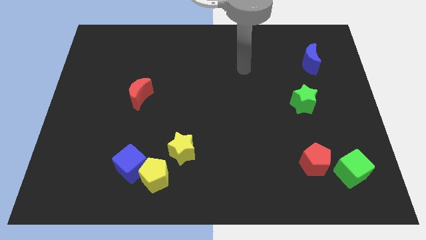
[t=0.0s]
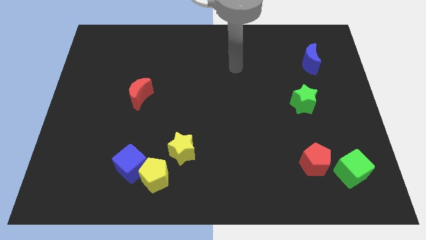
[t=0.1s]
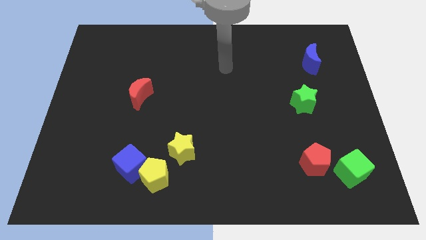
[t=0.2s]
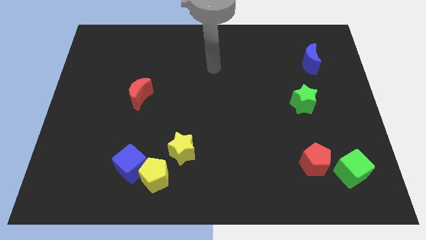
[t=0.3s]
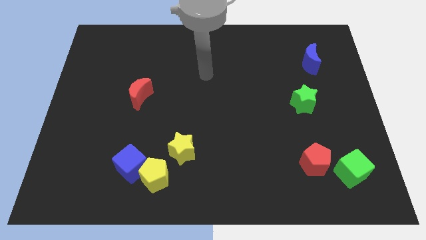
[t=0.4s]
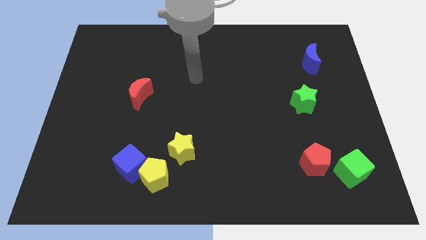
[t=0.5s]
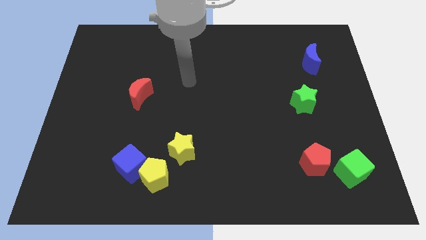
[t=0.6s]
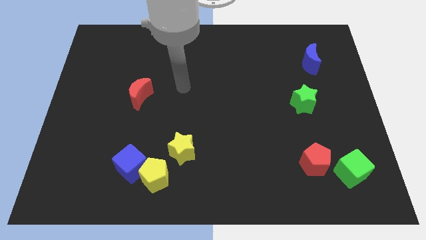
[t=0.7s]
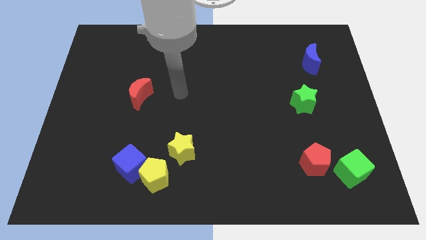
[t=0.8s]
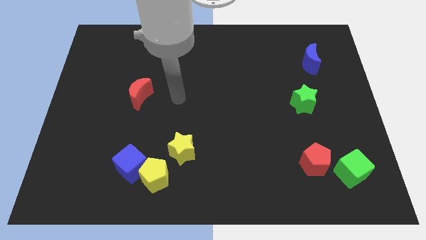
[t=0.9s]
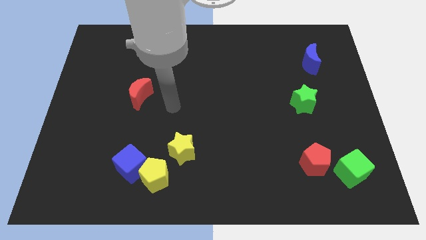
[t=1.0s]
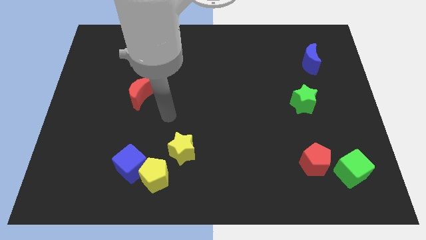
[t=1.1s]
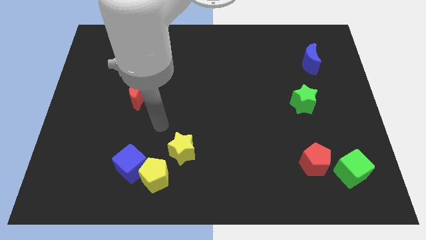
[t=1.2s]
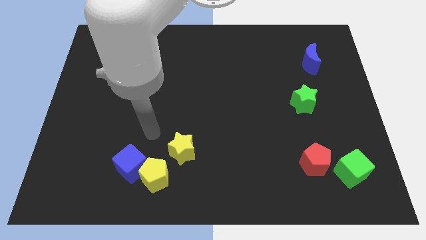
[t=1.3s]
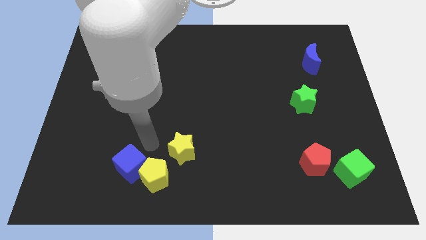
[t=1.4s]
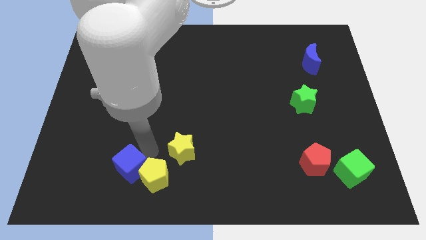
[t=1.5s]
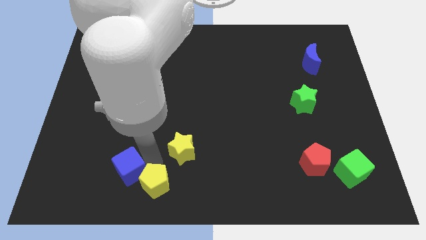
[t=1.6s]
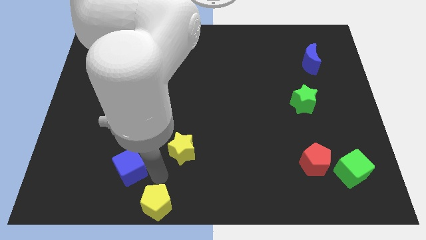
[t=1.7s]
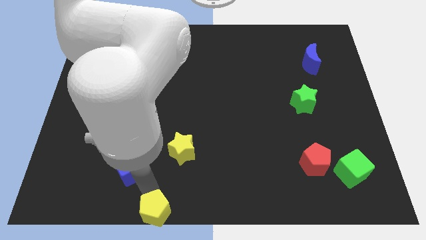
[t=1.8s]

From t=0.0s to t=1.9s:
move the blue cube away from the yellow pentagon

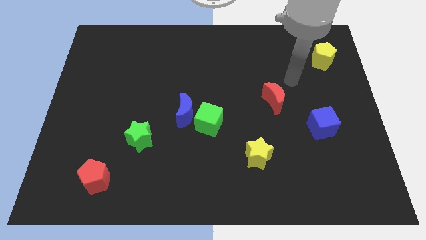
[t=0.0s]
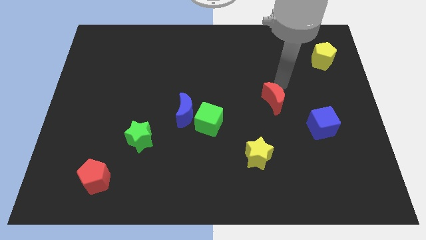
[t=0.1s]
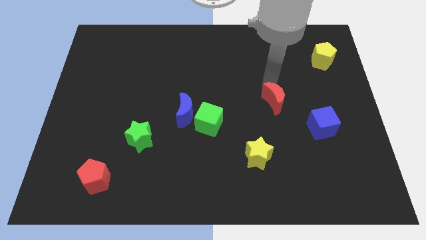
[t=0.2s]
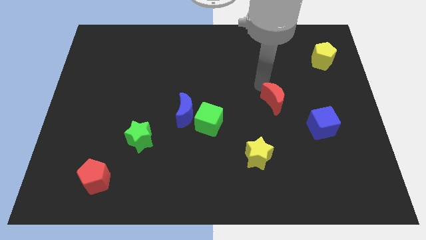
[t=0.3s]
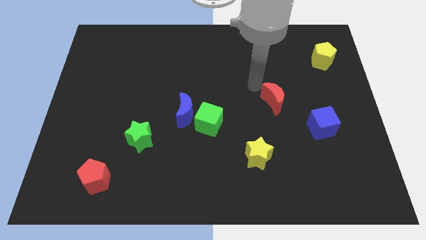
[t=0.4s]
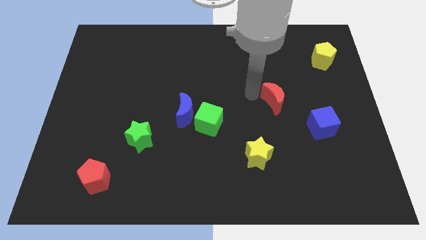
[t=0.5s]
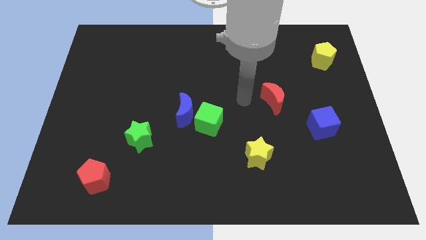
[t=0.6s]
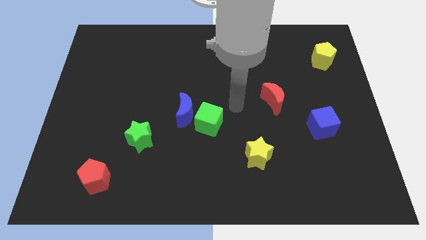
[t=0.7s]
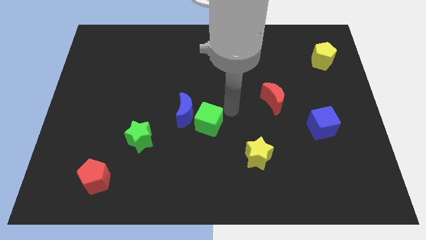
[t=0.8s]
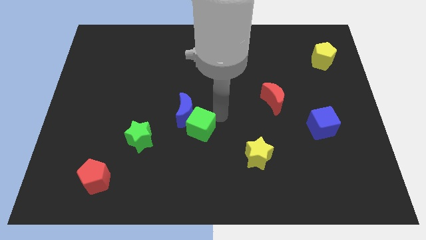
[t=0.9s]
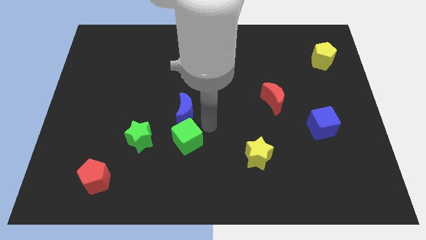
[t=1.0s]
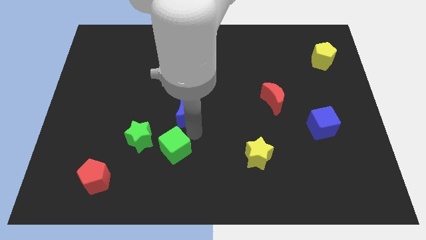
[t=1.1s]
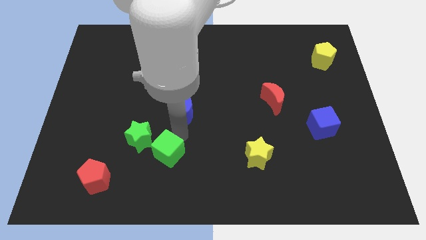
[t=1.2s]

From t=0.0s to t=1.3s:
separate the blue moon from the green cube

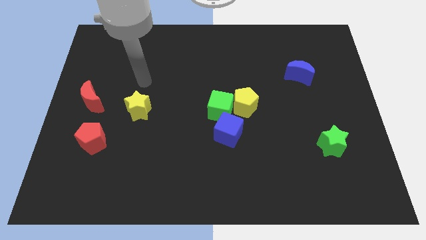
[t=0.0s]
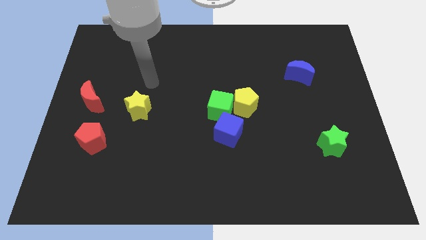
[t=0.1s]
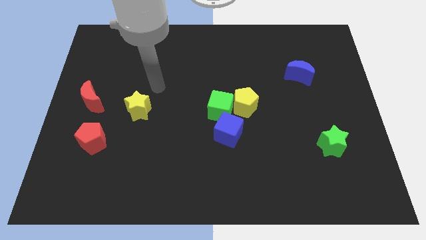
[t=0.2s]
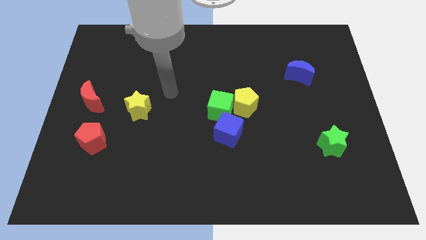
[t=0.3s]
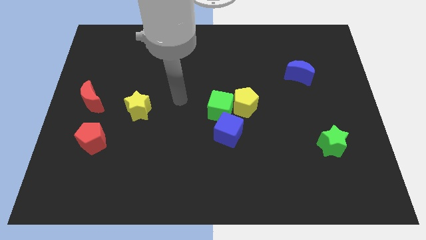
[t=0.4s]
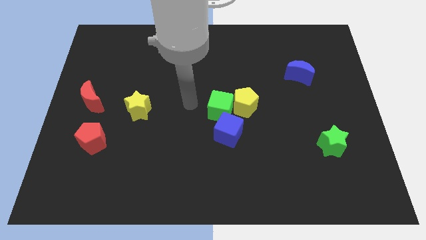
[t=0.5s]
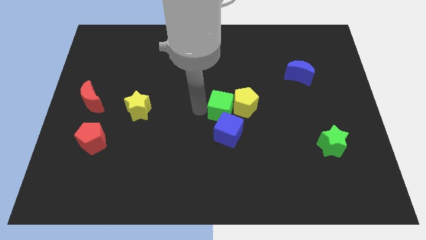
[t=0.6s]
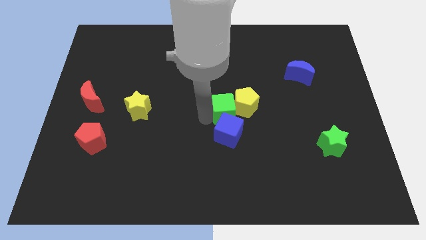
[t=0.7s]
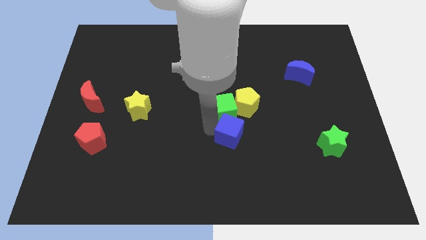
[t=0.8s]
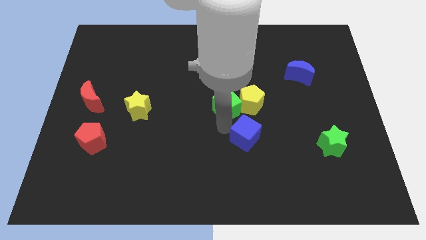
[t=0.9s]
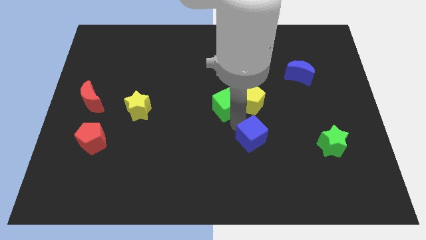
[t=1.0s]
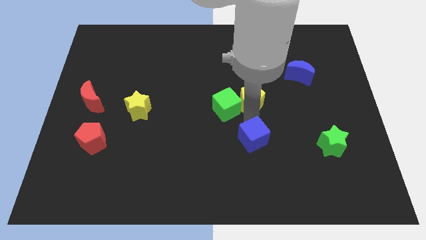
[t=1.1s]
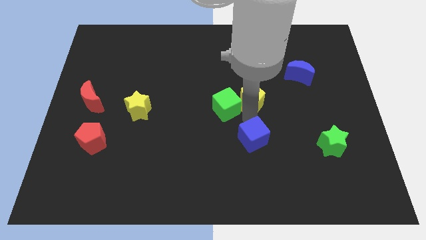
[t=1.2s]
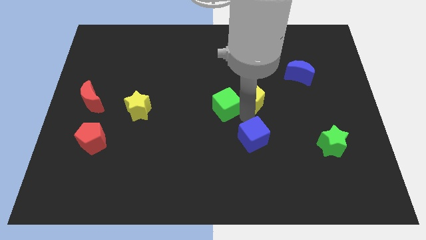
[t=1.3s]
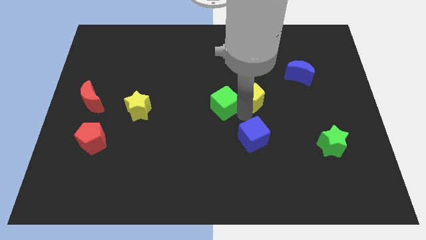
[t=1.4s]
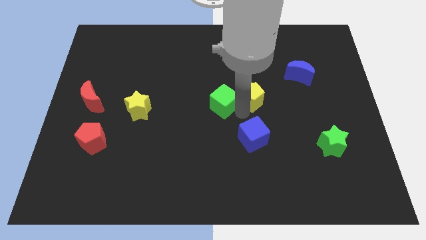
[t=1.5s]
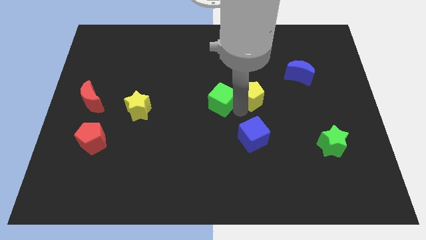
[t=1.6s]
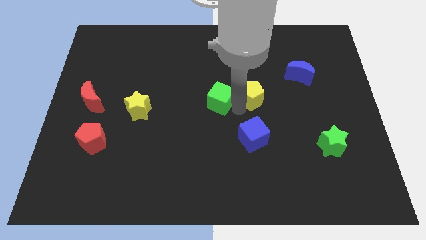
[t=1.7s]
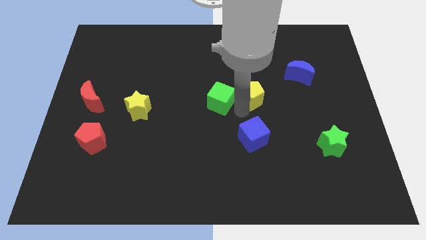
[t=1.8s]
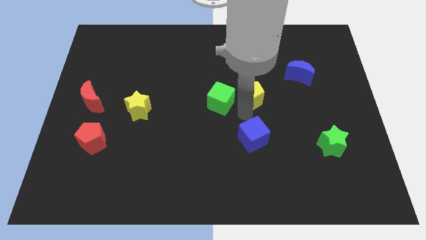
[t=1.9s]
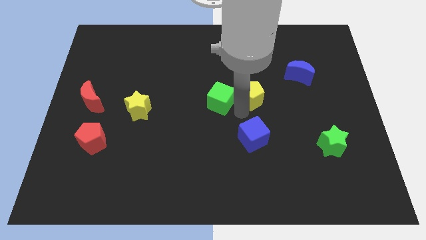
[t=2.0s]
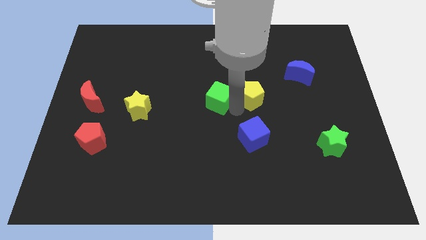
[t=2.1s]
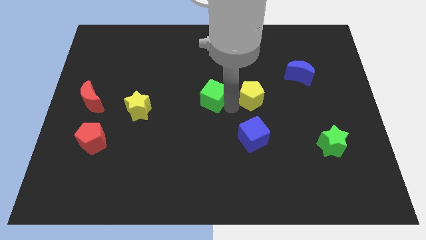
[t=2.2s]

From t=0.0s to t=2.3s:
separate the green cube from the yellow pentagon and blue cube

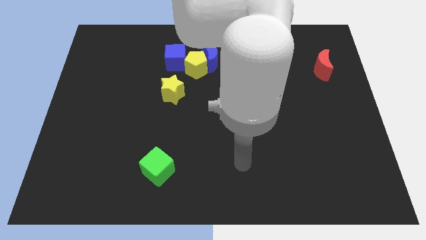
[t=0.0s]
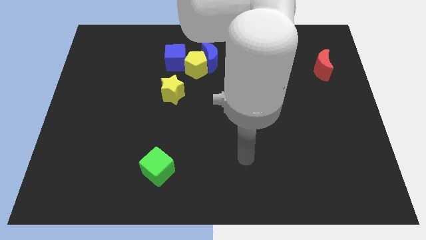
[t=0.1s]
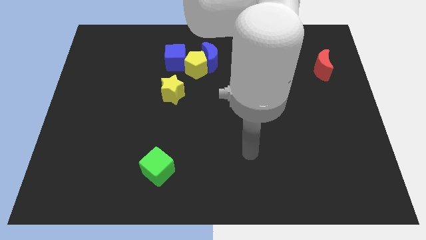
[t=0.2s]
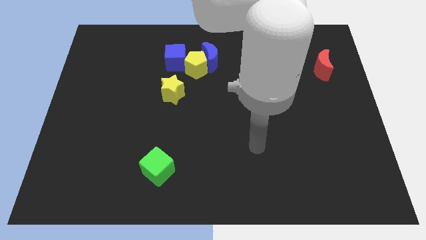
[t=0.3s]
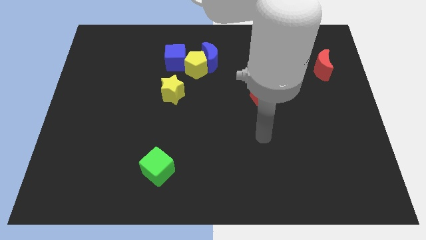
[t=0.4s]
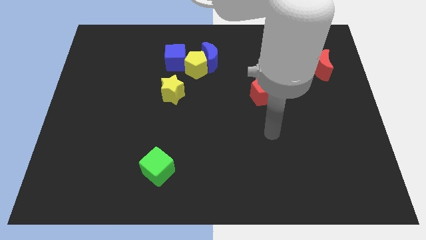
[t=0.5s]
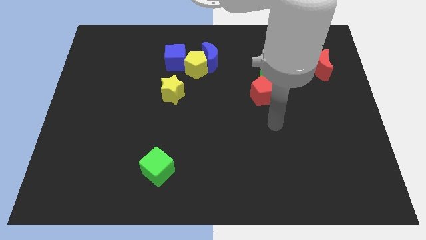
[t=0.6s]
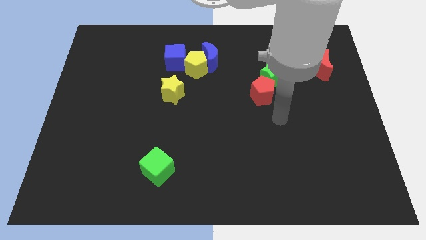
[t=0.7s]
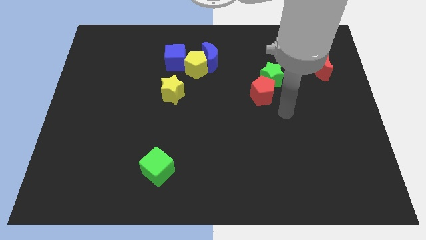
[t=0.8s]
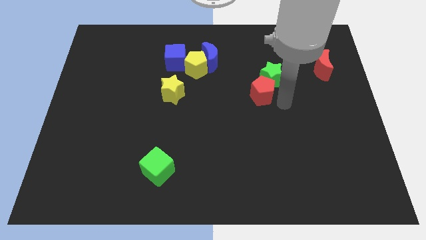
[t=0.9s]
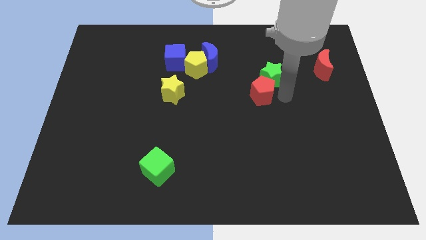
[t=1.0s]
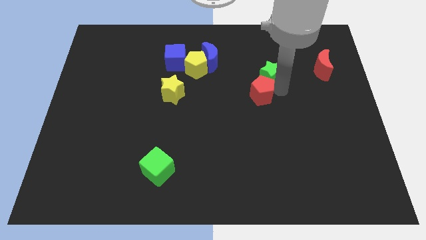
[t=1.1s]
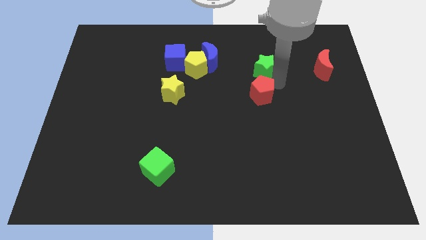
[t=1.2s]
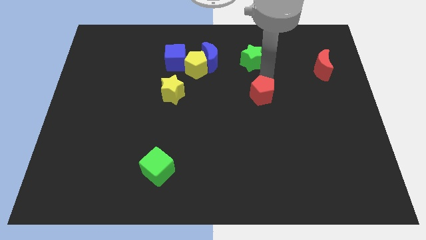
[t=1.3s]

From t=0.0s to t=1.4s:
move the red pentagon away from the green star

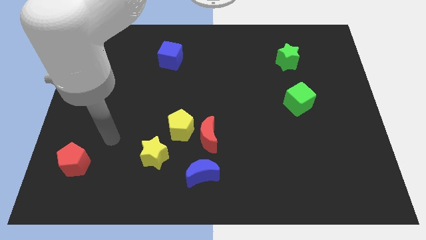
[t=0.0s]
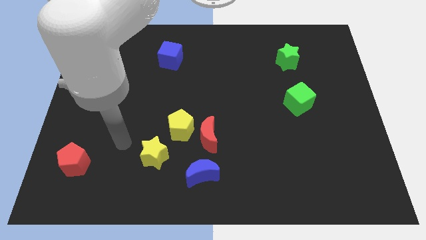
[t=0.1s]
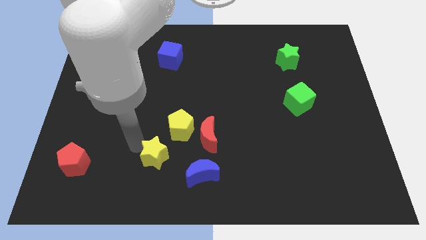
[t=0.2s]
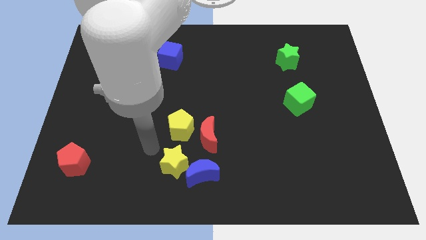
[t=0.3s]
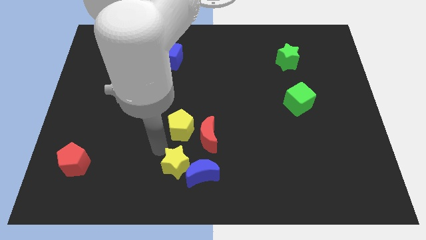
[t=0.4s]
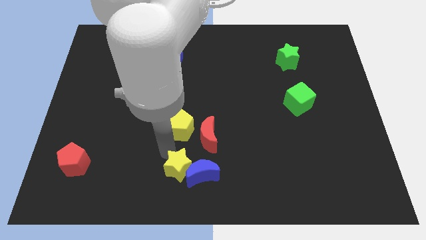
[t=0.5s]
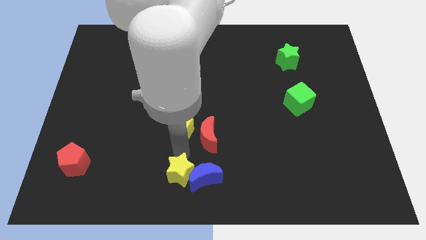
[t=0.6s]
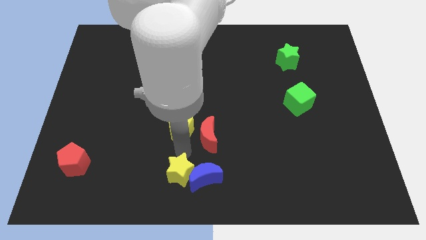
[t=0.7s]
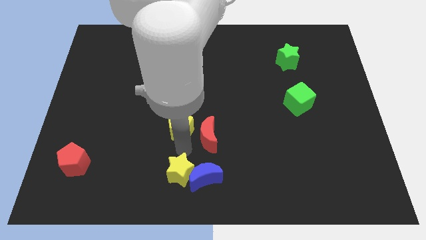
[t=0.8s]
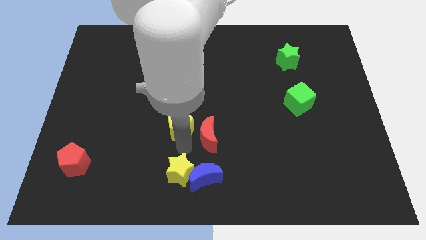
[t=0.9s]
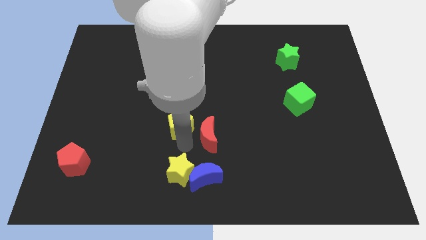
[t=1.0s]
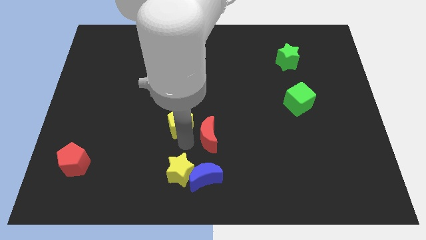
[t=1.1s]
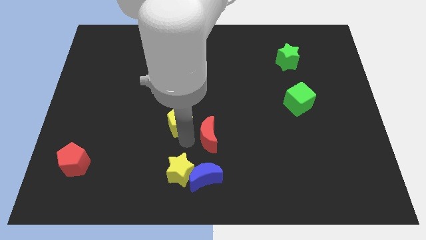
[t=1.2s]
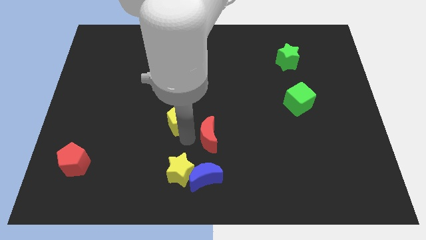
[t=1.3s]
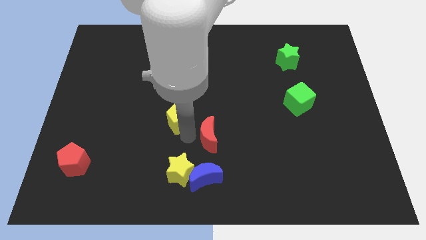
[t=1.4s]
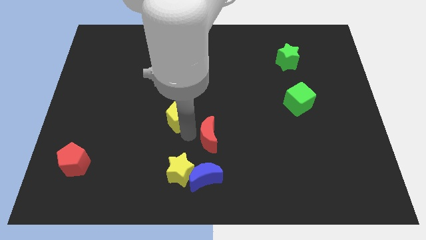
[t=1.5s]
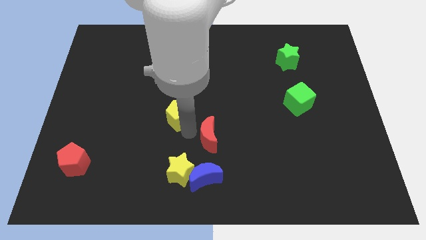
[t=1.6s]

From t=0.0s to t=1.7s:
separate the yellow pentagon from the red moon and yellow star

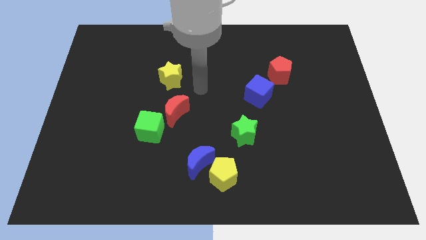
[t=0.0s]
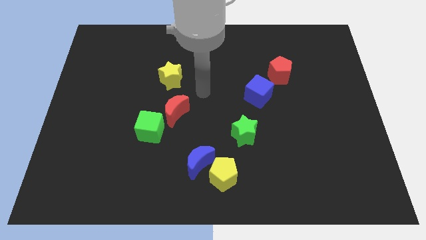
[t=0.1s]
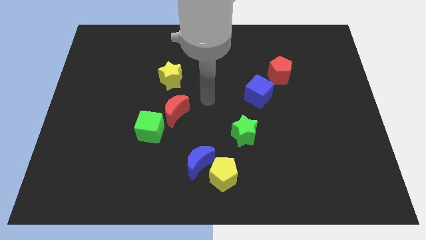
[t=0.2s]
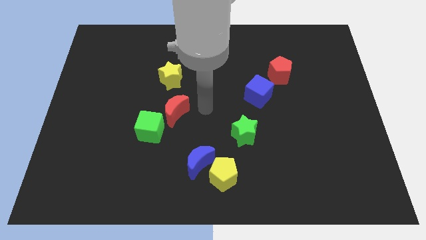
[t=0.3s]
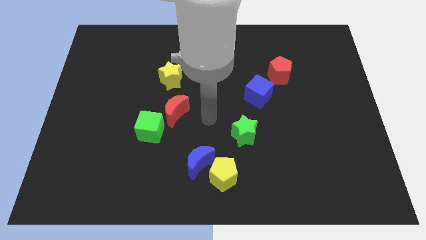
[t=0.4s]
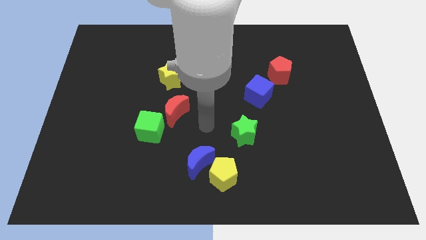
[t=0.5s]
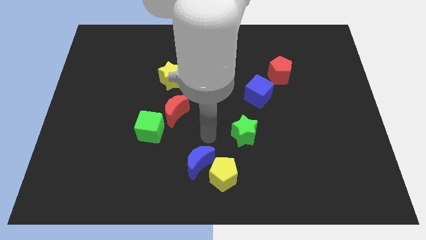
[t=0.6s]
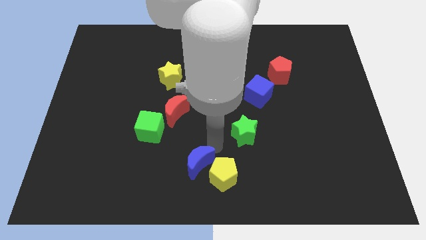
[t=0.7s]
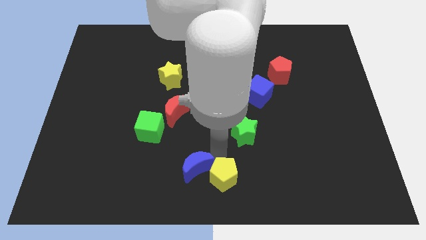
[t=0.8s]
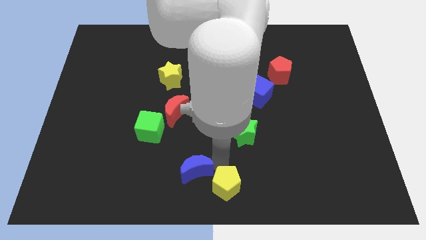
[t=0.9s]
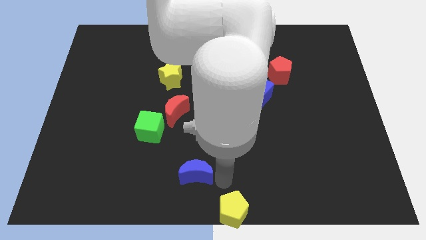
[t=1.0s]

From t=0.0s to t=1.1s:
separate the blue moon from the yellow pentagon
